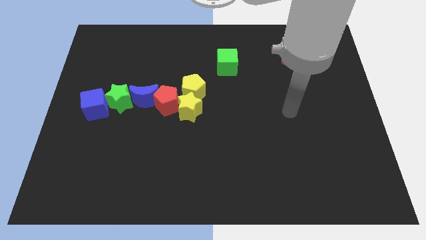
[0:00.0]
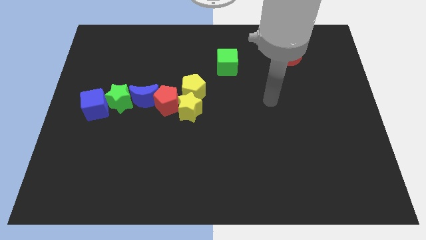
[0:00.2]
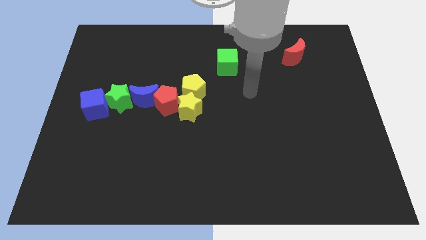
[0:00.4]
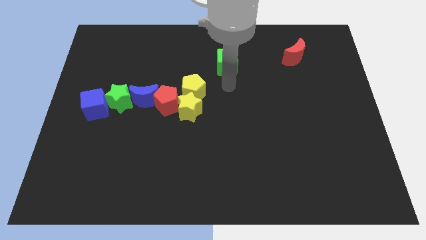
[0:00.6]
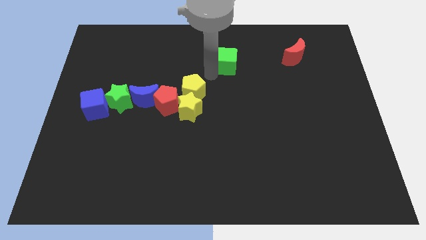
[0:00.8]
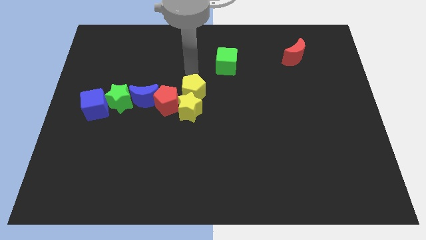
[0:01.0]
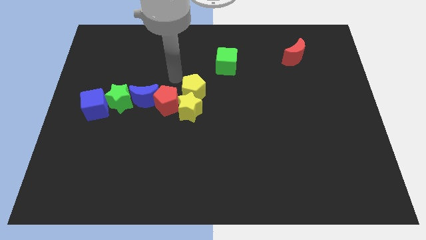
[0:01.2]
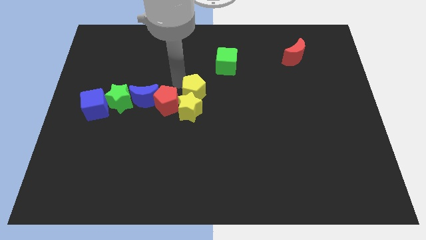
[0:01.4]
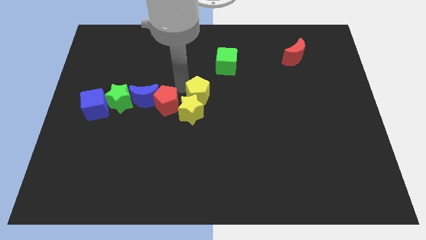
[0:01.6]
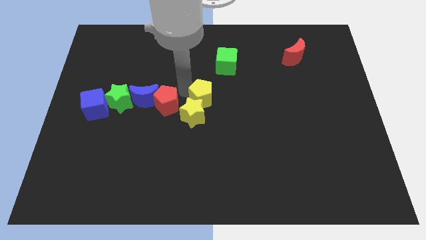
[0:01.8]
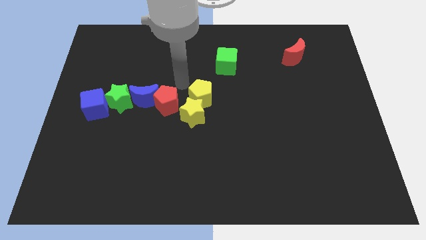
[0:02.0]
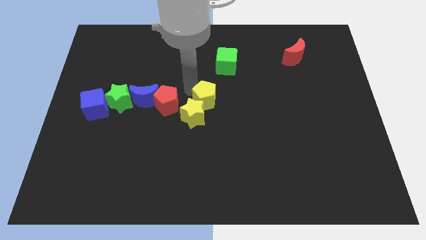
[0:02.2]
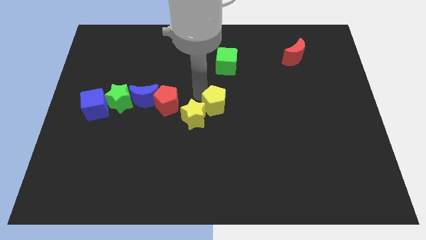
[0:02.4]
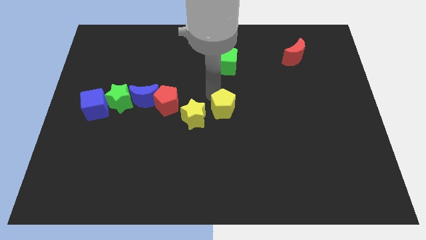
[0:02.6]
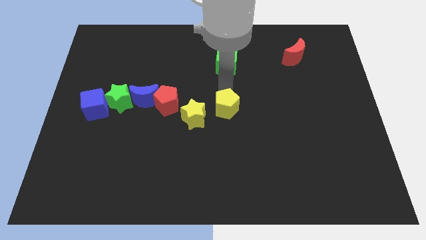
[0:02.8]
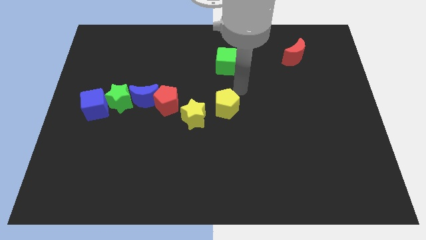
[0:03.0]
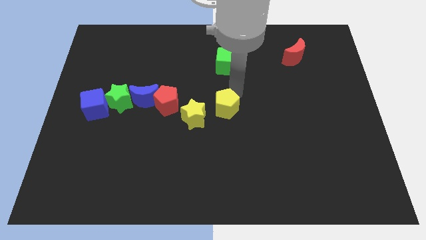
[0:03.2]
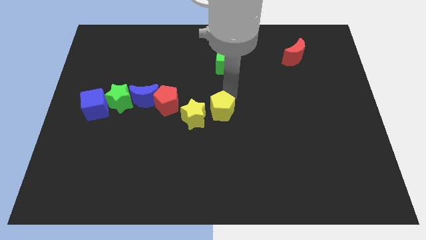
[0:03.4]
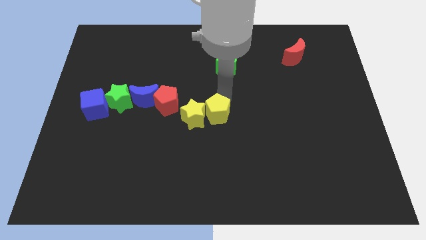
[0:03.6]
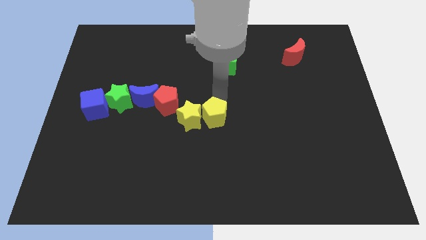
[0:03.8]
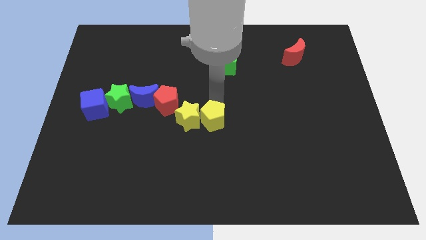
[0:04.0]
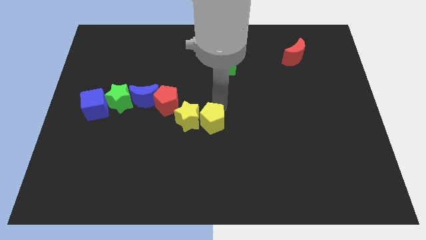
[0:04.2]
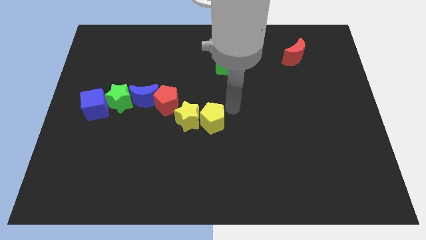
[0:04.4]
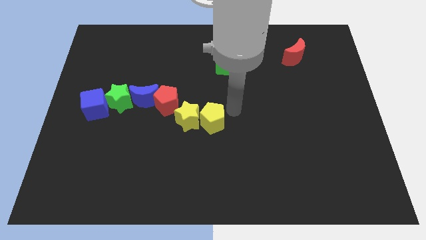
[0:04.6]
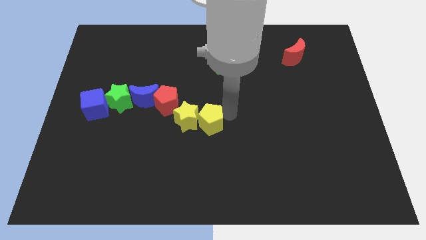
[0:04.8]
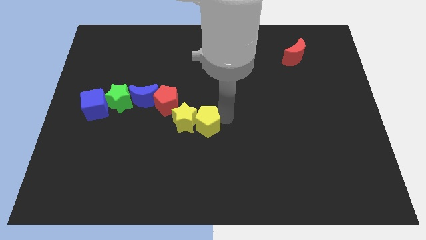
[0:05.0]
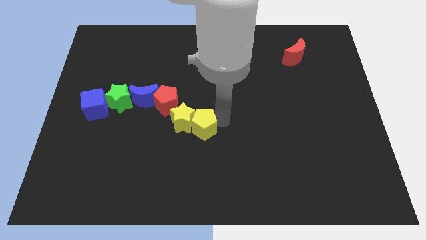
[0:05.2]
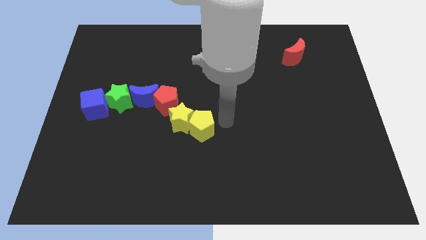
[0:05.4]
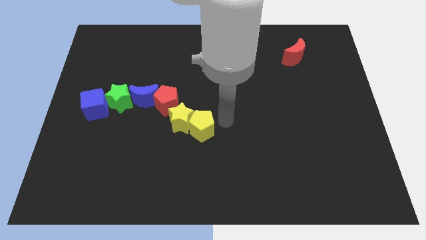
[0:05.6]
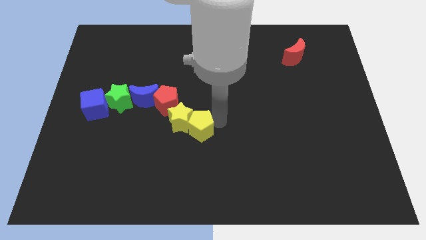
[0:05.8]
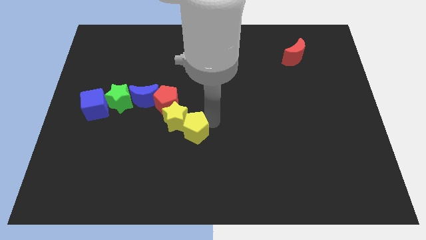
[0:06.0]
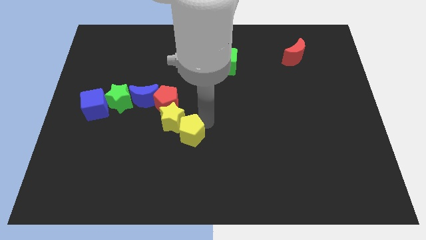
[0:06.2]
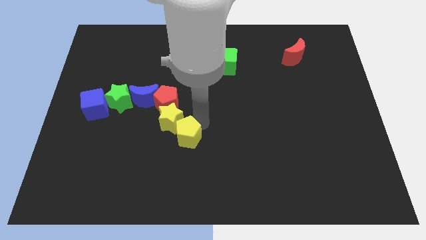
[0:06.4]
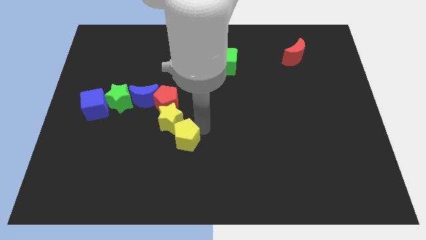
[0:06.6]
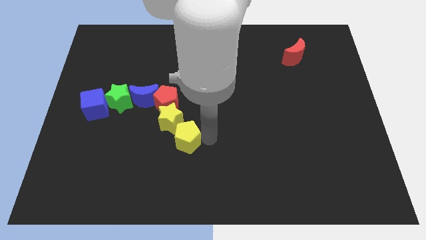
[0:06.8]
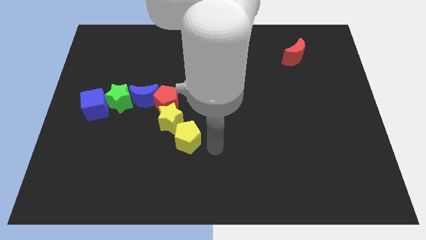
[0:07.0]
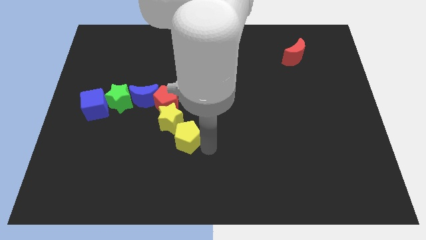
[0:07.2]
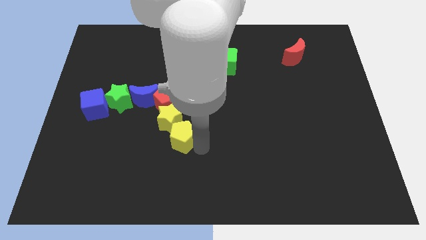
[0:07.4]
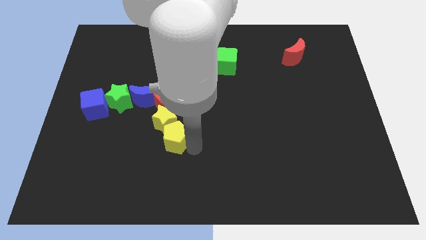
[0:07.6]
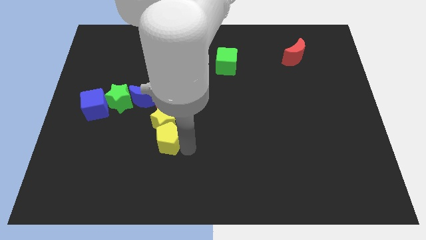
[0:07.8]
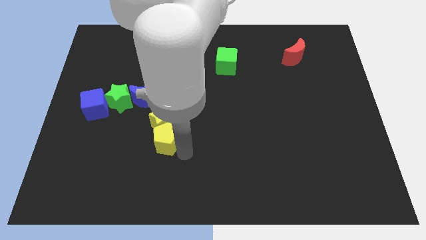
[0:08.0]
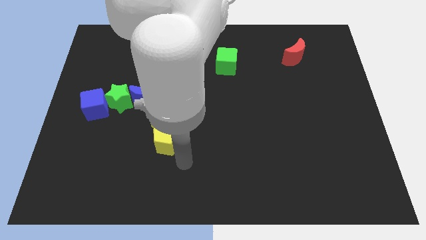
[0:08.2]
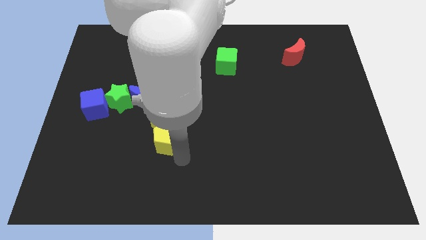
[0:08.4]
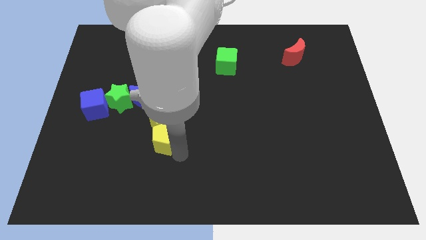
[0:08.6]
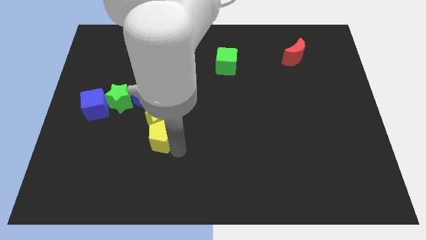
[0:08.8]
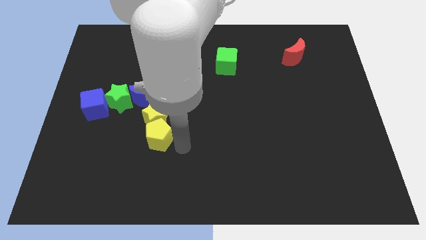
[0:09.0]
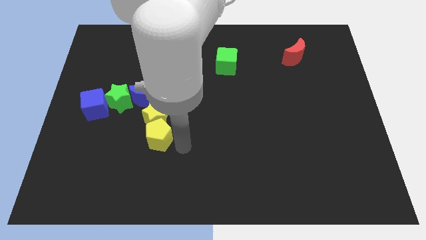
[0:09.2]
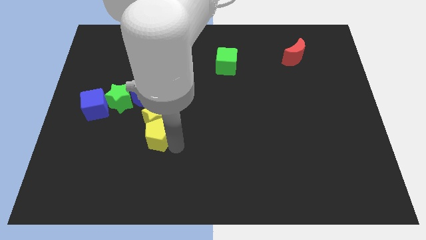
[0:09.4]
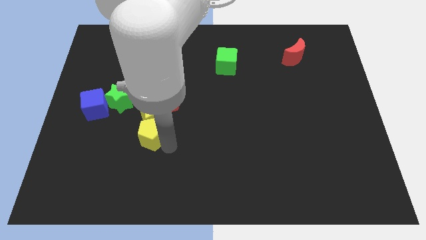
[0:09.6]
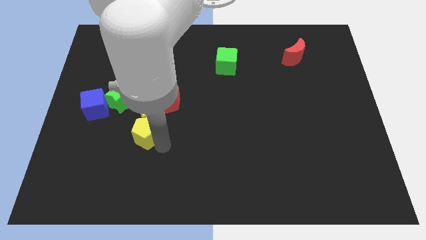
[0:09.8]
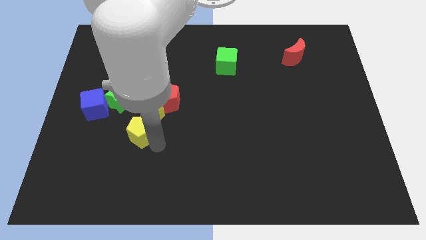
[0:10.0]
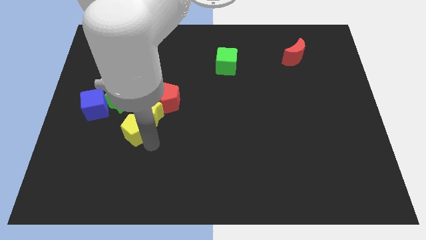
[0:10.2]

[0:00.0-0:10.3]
move the yellow pentagon to the bottom right side of the blue cube

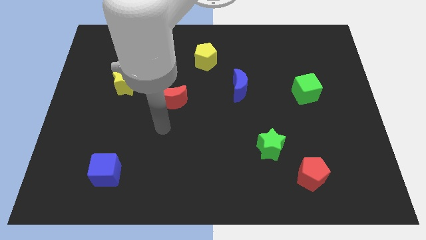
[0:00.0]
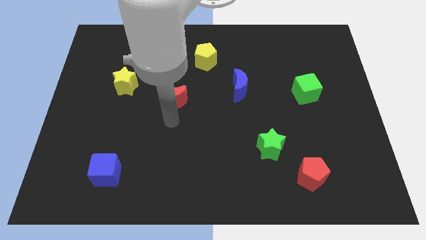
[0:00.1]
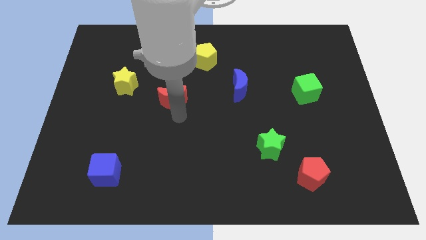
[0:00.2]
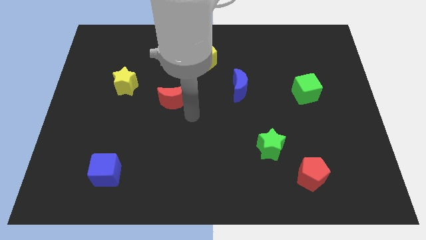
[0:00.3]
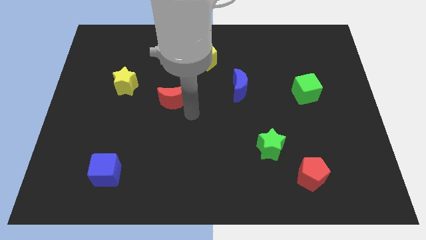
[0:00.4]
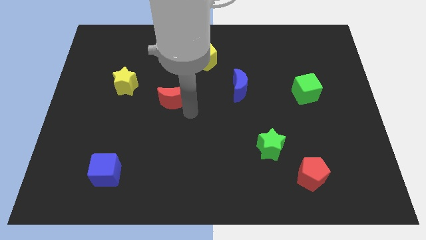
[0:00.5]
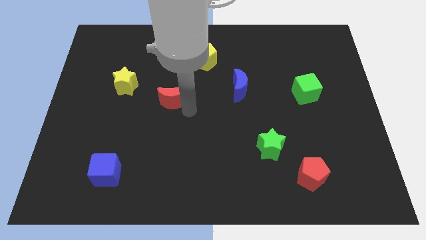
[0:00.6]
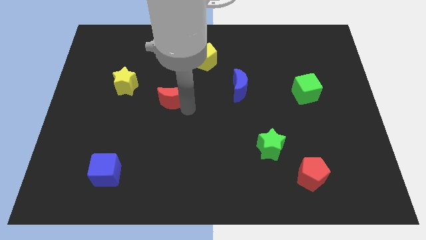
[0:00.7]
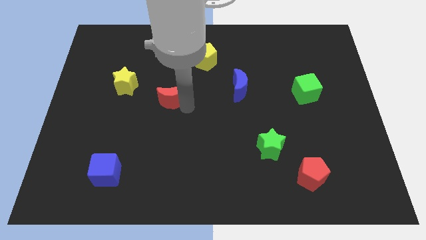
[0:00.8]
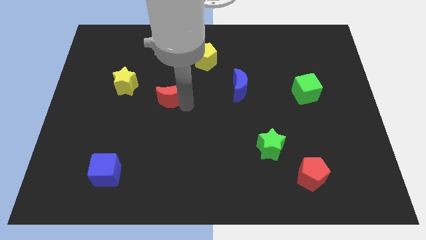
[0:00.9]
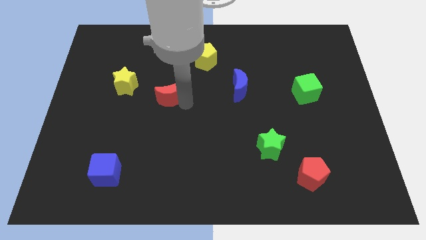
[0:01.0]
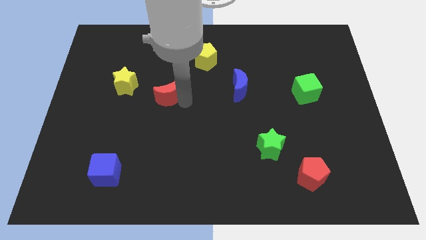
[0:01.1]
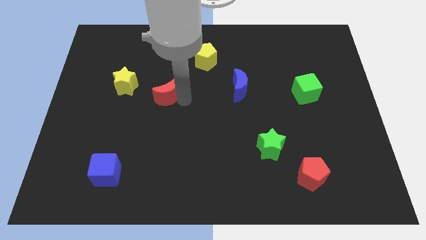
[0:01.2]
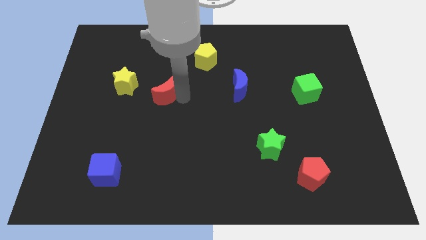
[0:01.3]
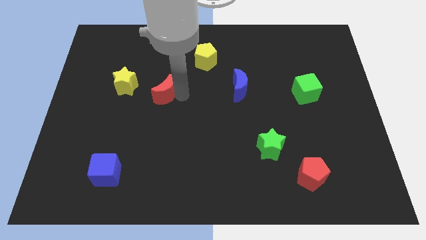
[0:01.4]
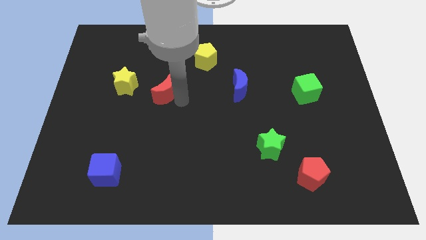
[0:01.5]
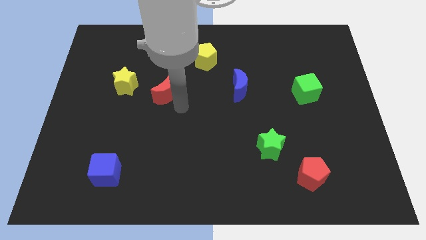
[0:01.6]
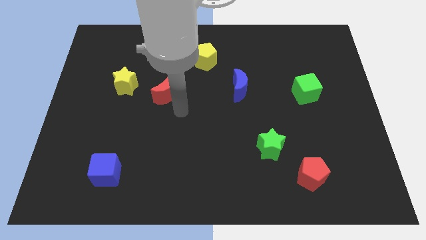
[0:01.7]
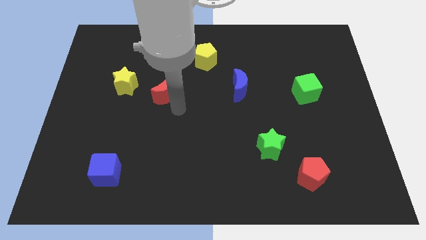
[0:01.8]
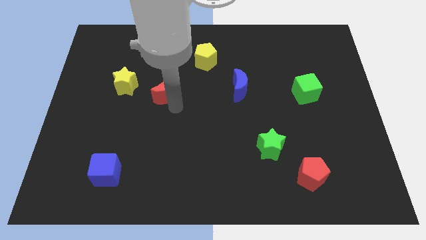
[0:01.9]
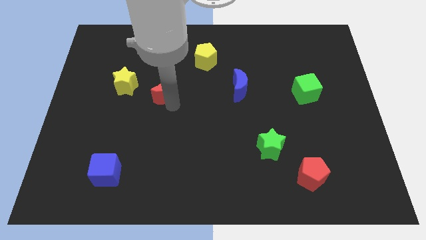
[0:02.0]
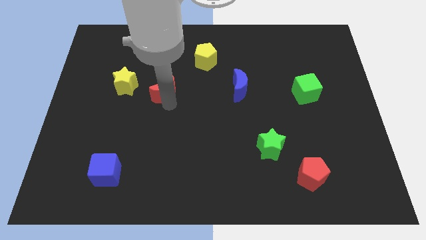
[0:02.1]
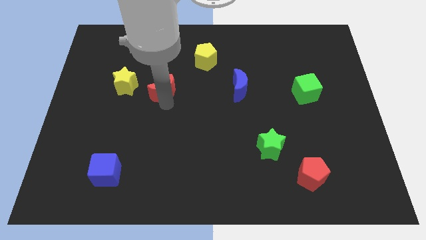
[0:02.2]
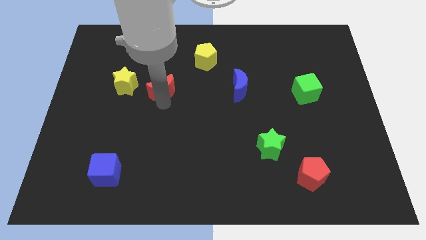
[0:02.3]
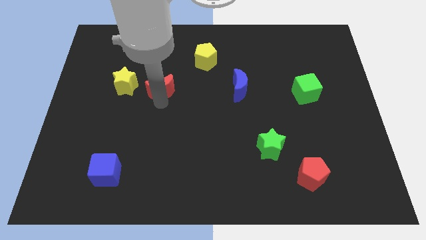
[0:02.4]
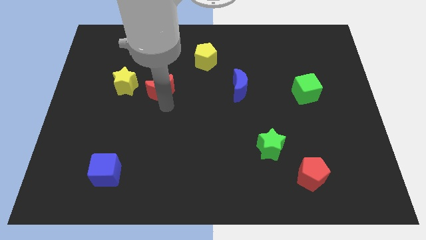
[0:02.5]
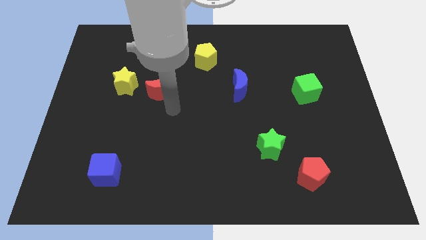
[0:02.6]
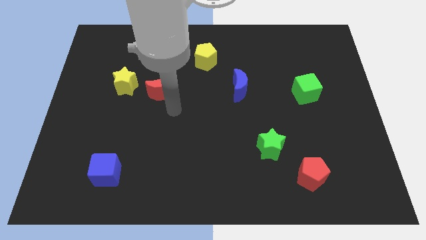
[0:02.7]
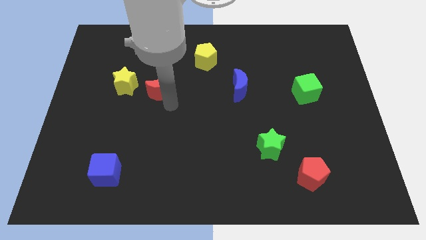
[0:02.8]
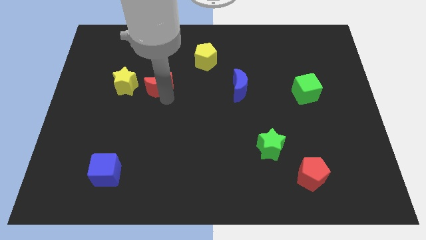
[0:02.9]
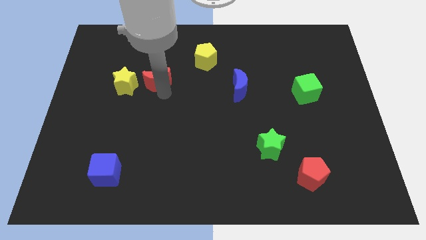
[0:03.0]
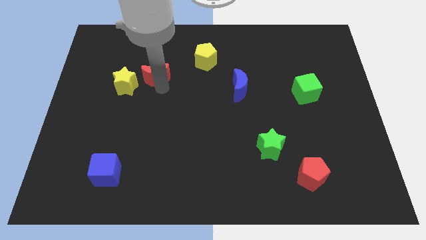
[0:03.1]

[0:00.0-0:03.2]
push the red moon to the top right of the yellow star
